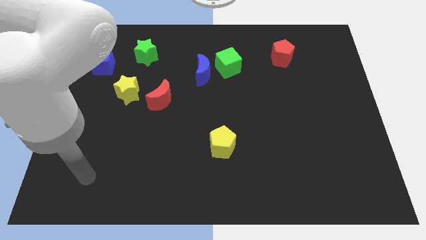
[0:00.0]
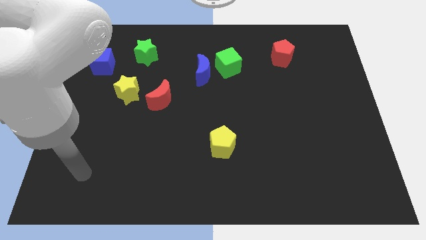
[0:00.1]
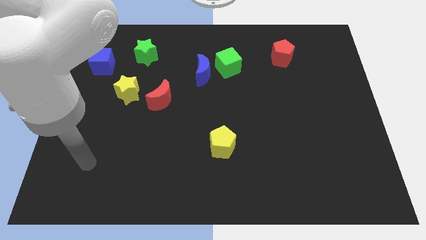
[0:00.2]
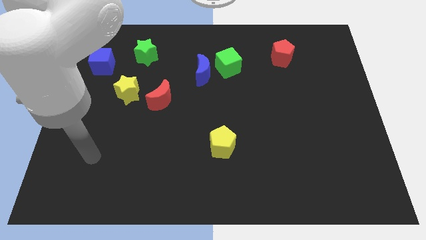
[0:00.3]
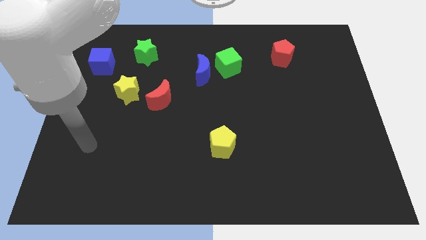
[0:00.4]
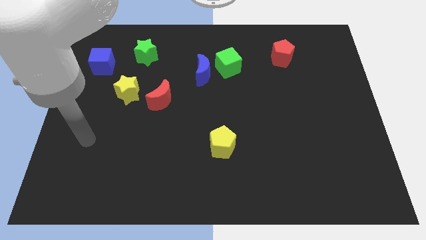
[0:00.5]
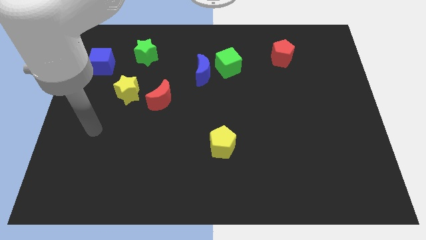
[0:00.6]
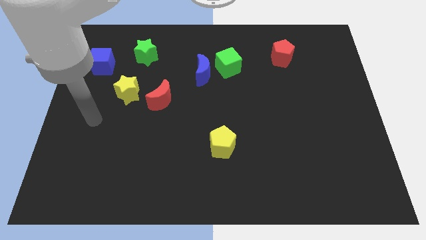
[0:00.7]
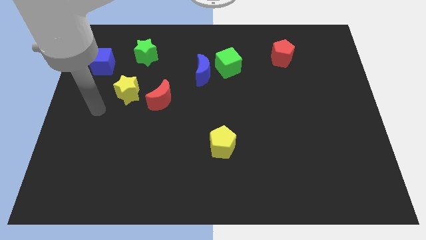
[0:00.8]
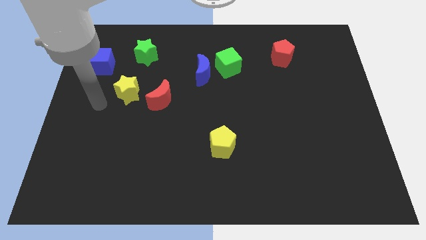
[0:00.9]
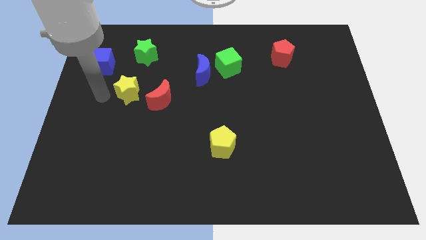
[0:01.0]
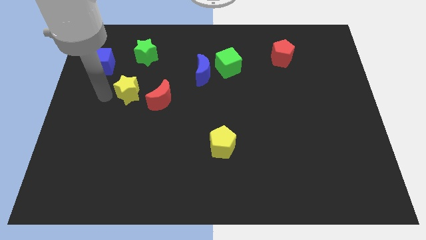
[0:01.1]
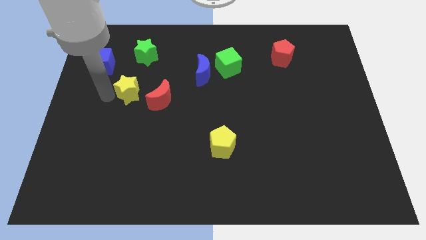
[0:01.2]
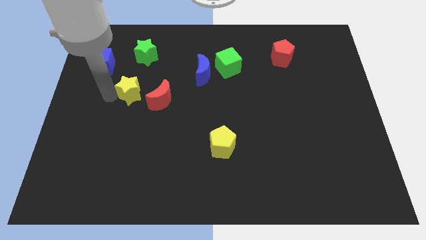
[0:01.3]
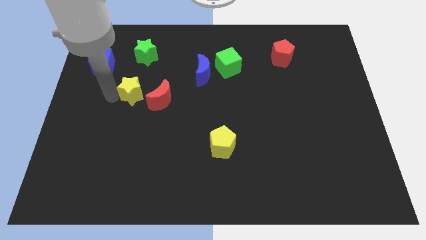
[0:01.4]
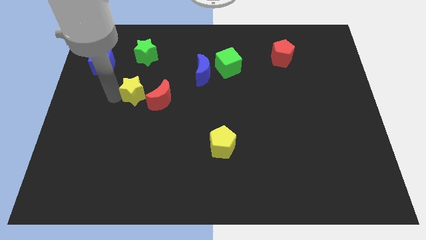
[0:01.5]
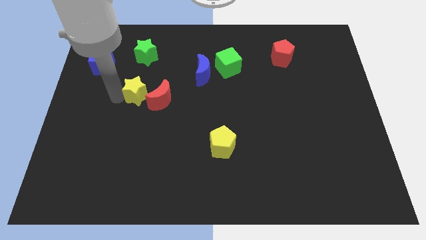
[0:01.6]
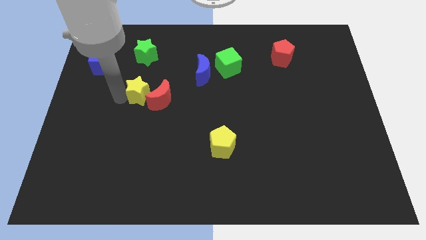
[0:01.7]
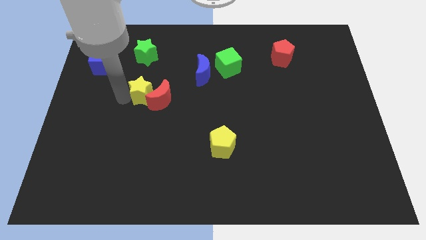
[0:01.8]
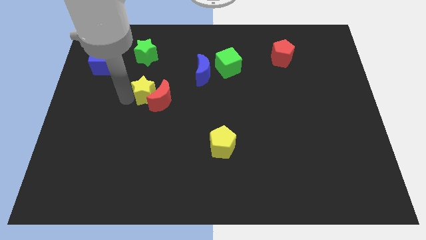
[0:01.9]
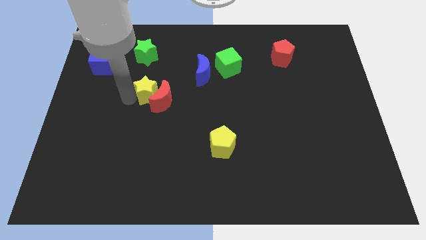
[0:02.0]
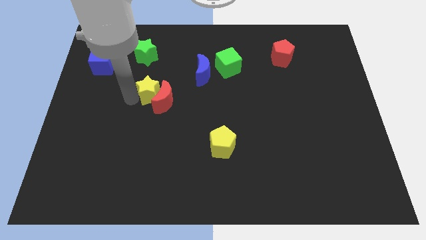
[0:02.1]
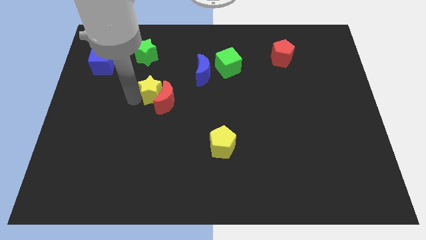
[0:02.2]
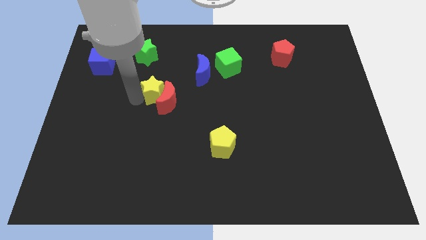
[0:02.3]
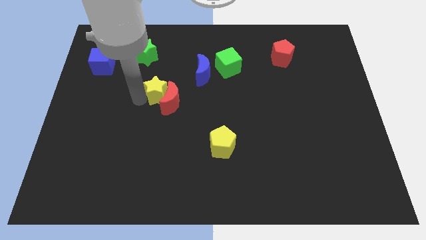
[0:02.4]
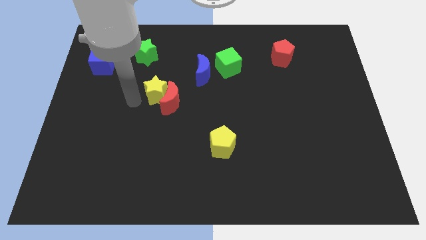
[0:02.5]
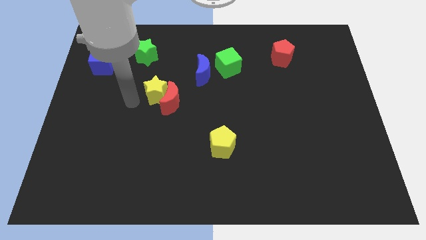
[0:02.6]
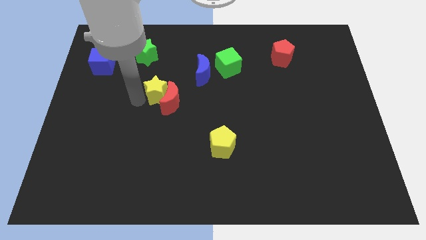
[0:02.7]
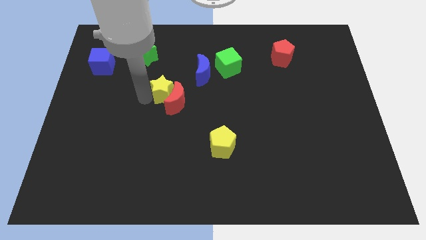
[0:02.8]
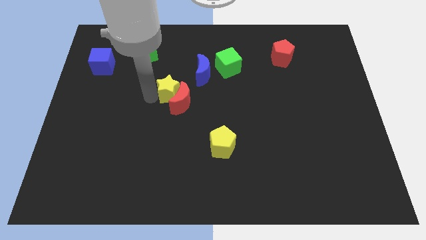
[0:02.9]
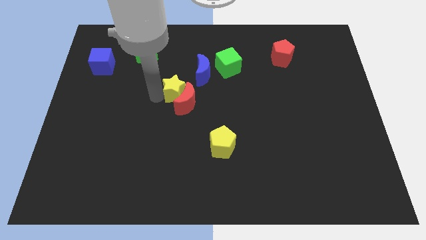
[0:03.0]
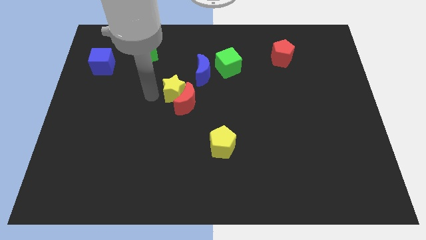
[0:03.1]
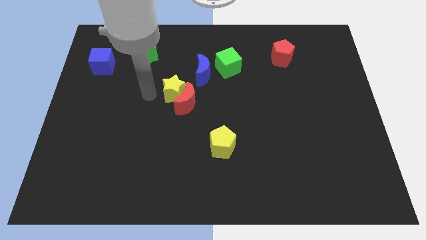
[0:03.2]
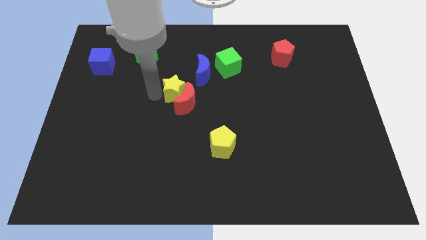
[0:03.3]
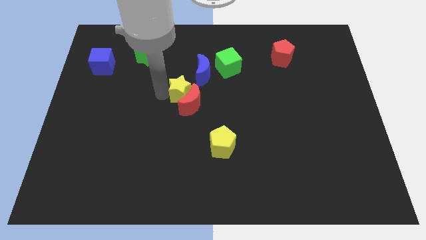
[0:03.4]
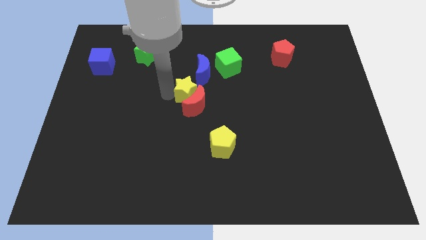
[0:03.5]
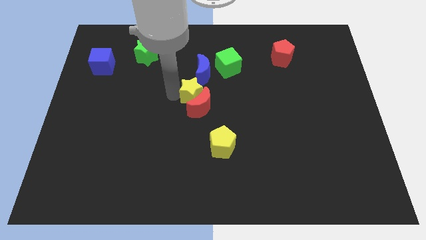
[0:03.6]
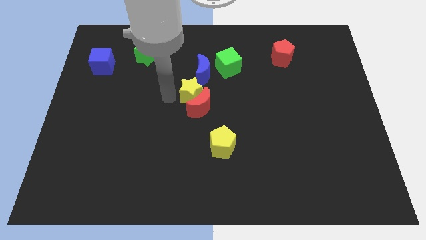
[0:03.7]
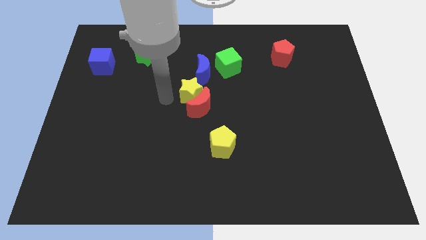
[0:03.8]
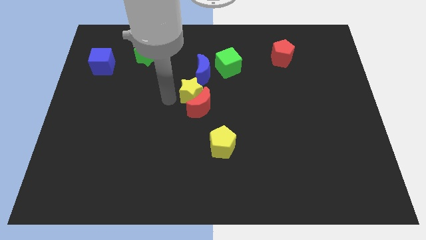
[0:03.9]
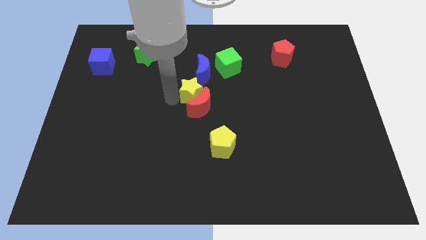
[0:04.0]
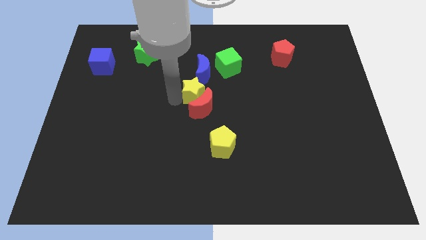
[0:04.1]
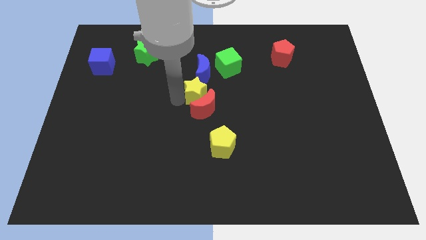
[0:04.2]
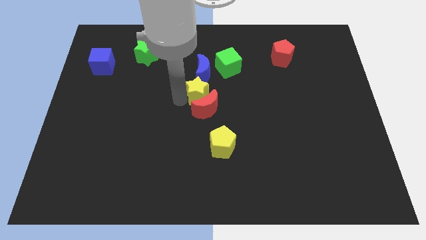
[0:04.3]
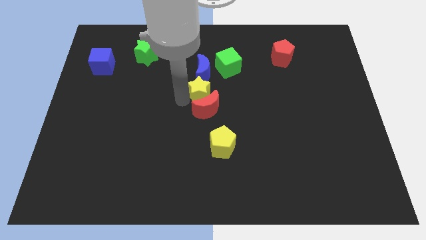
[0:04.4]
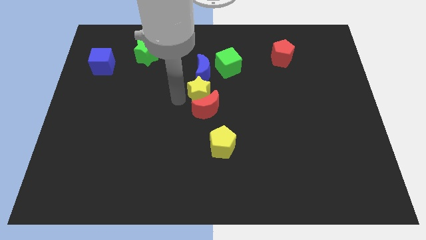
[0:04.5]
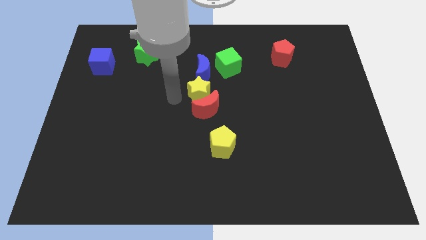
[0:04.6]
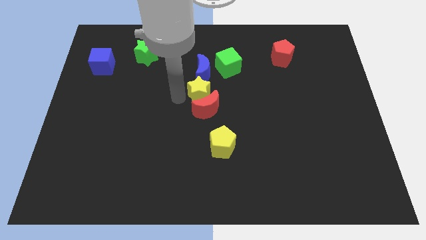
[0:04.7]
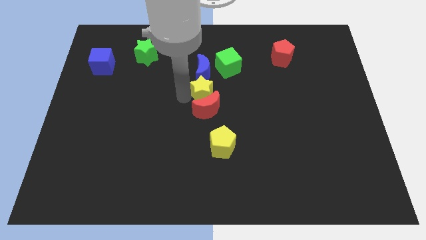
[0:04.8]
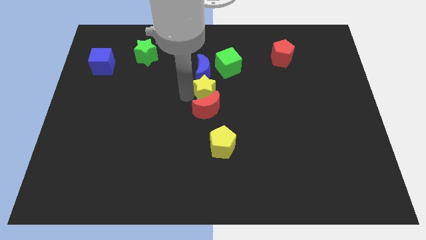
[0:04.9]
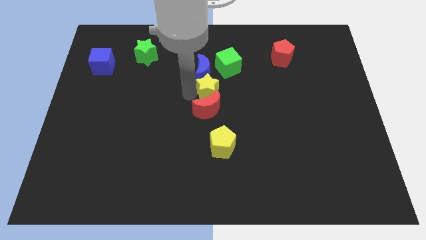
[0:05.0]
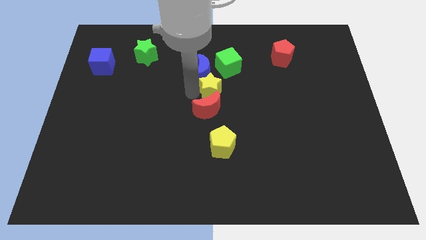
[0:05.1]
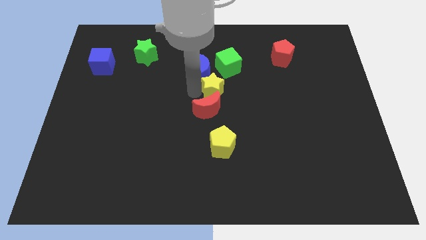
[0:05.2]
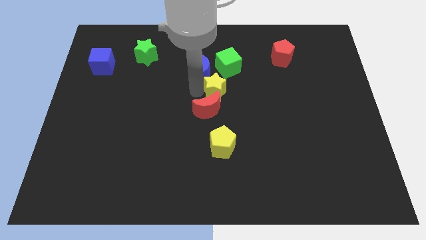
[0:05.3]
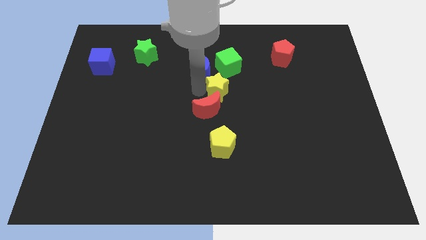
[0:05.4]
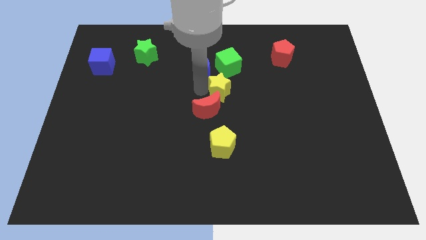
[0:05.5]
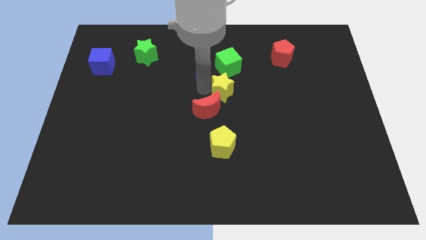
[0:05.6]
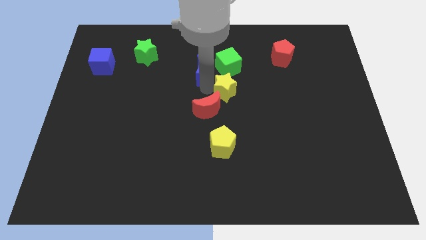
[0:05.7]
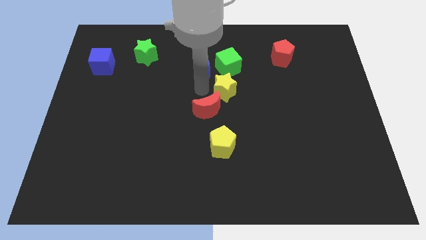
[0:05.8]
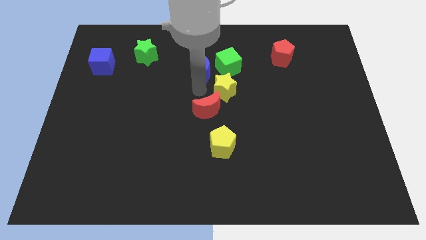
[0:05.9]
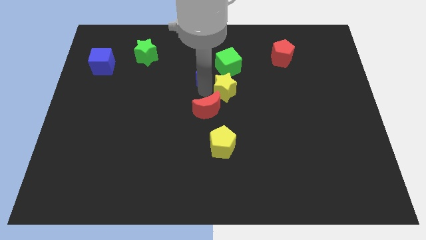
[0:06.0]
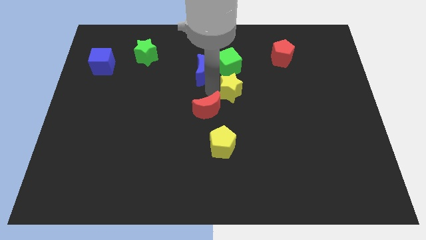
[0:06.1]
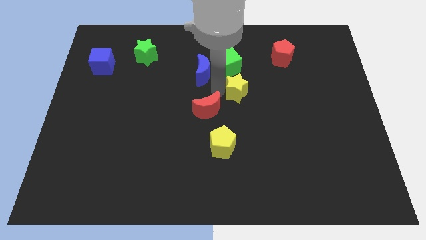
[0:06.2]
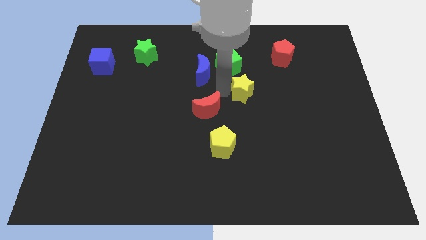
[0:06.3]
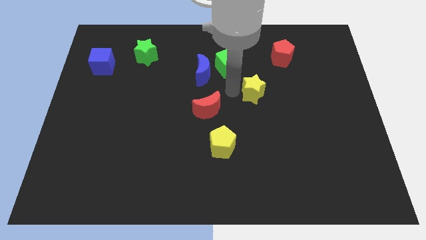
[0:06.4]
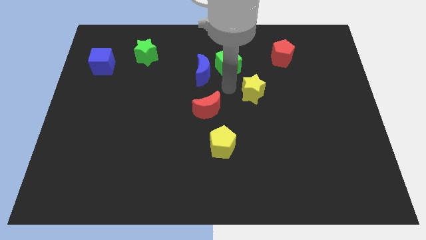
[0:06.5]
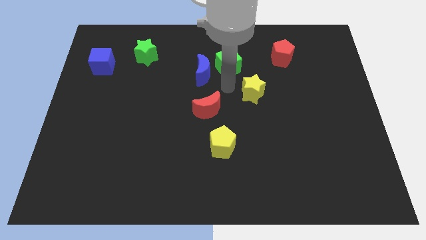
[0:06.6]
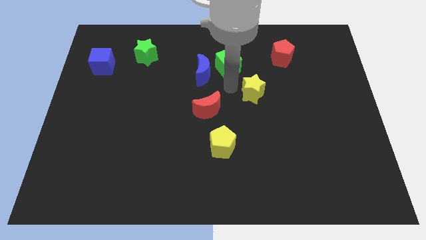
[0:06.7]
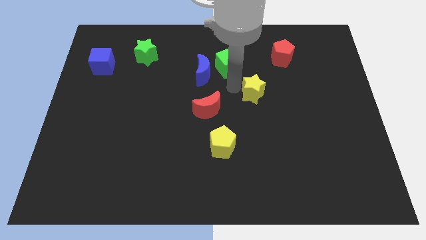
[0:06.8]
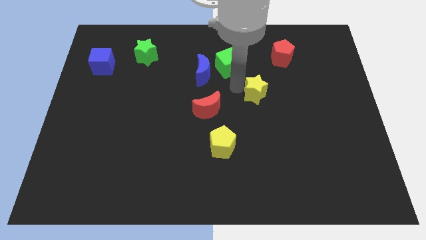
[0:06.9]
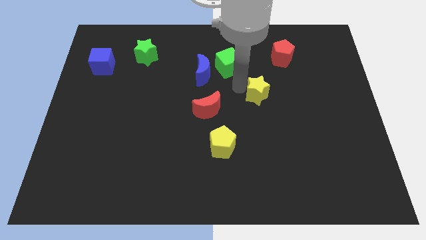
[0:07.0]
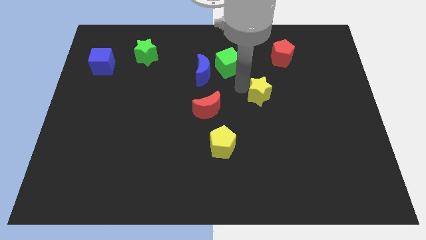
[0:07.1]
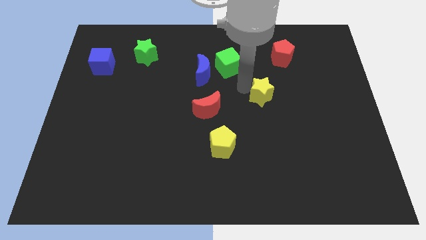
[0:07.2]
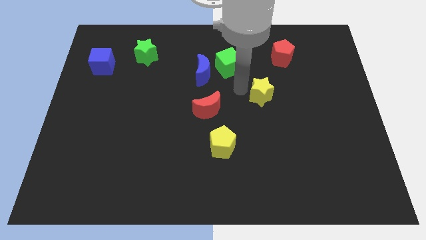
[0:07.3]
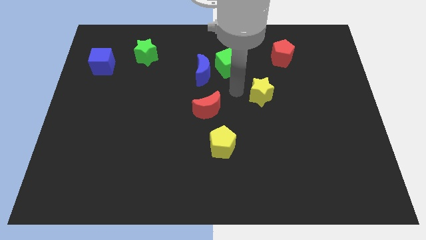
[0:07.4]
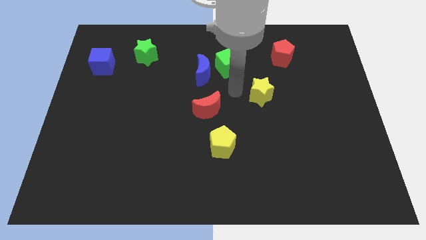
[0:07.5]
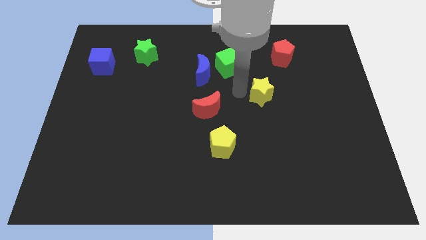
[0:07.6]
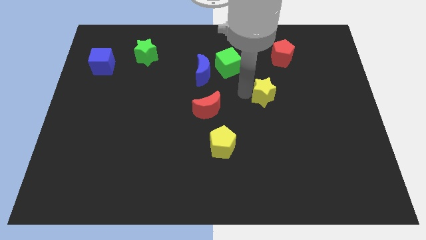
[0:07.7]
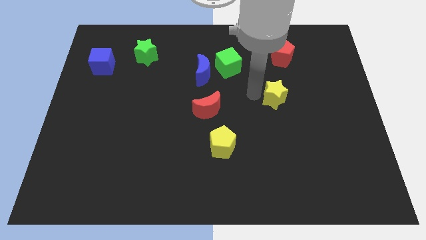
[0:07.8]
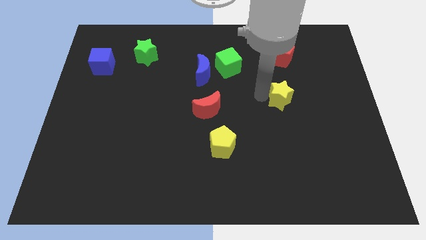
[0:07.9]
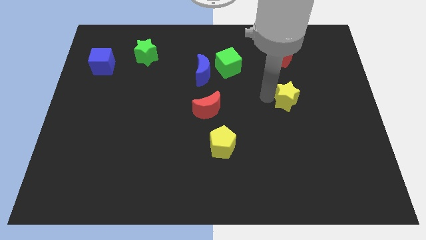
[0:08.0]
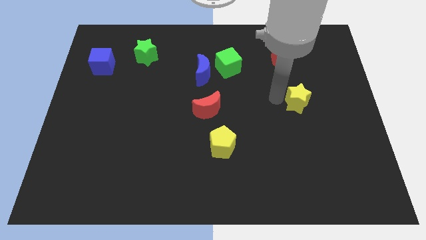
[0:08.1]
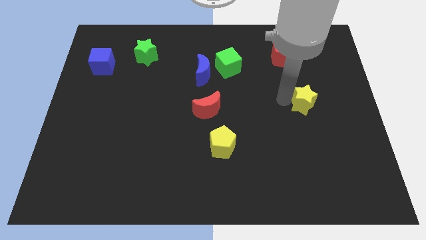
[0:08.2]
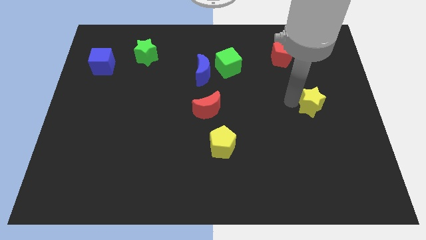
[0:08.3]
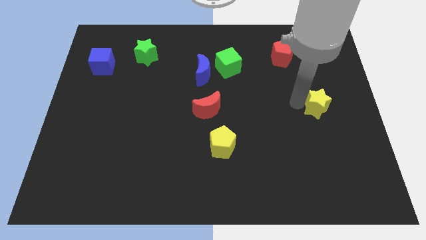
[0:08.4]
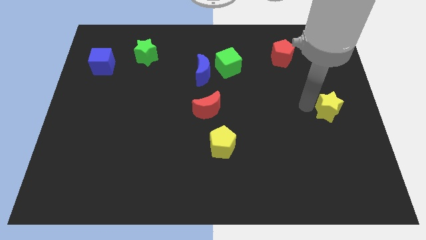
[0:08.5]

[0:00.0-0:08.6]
push the yellow star to the right side of the board
